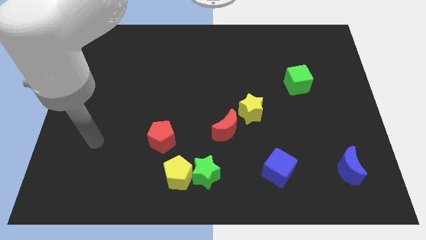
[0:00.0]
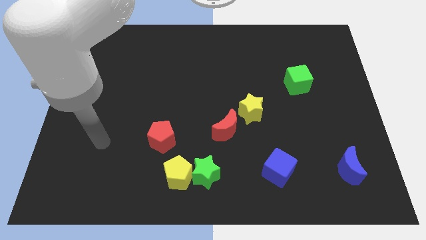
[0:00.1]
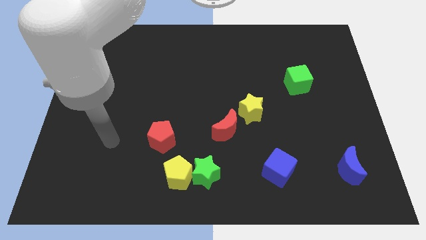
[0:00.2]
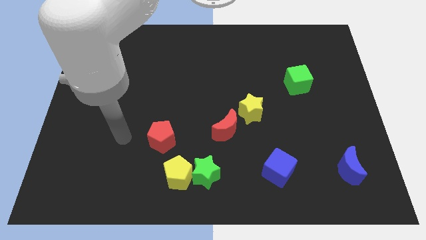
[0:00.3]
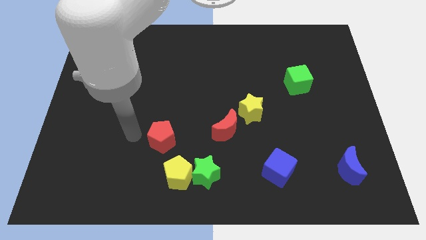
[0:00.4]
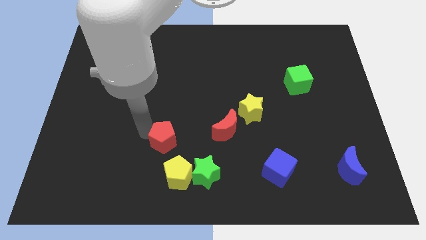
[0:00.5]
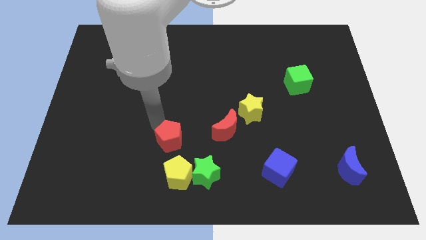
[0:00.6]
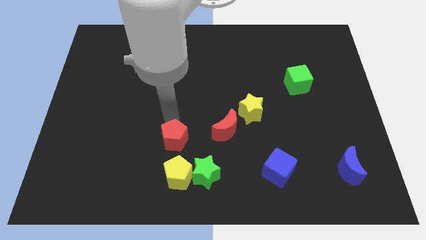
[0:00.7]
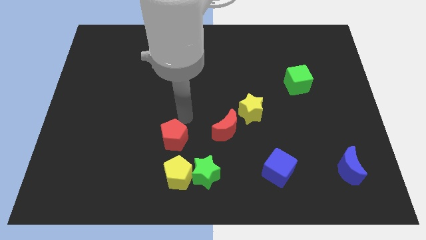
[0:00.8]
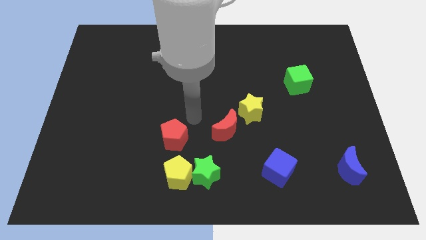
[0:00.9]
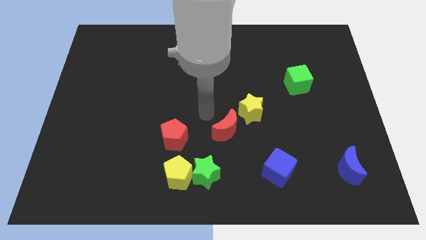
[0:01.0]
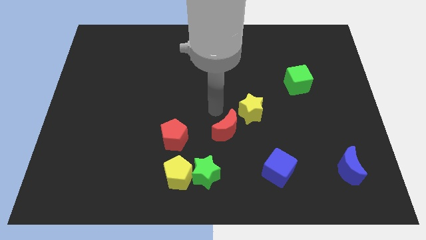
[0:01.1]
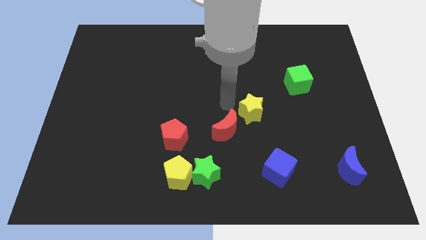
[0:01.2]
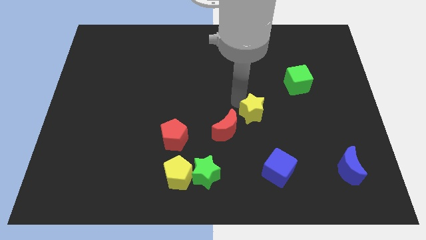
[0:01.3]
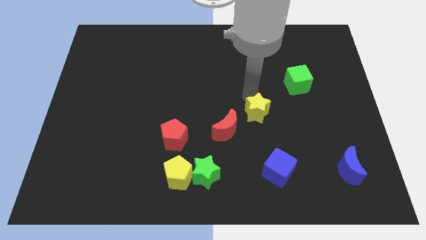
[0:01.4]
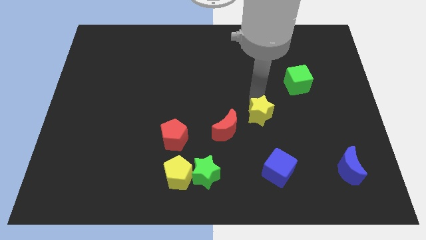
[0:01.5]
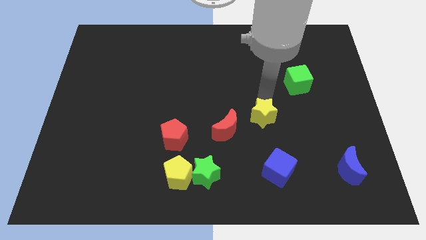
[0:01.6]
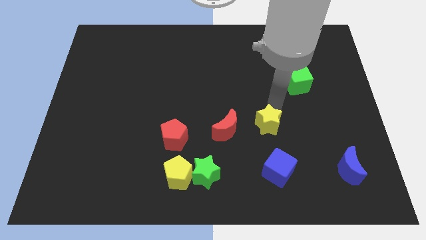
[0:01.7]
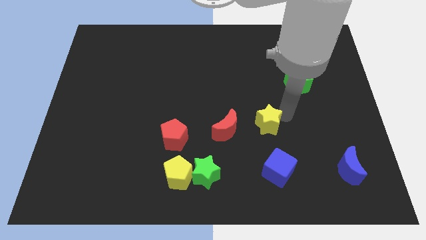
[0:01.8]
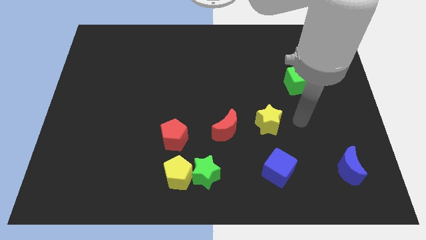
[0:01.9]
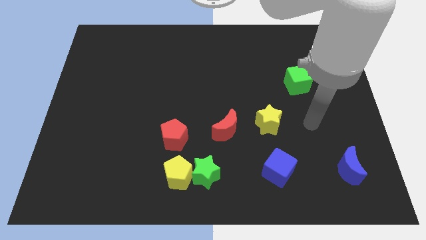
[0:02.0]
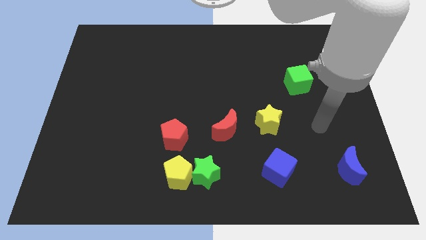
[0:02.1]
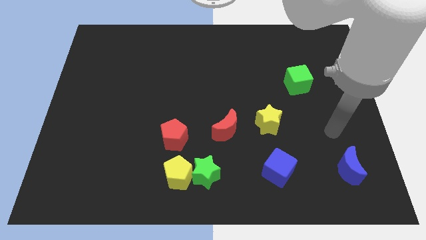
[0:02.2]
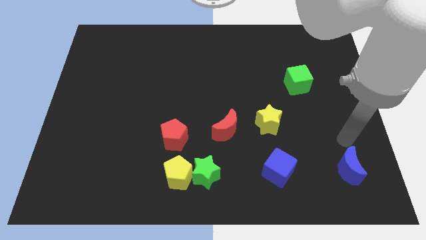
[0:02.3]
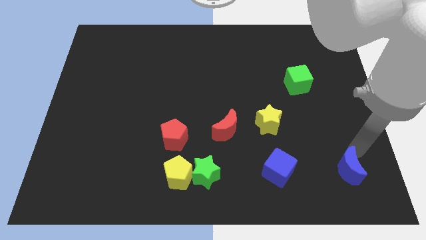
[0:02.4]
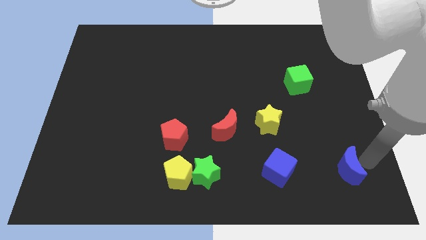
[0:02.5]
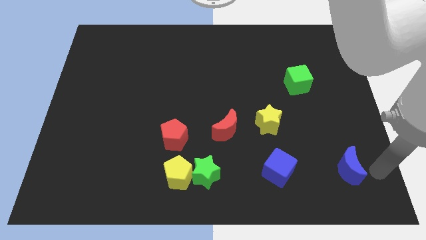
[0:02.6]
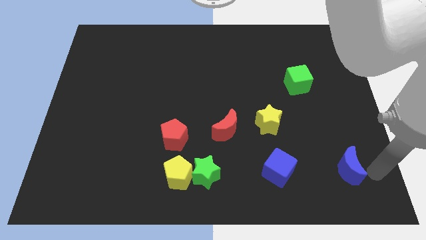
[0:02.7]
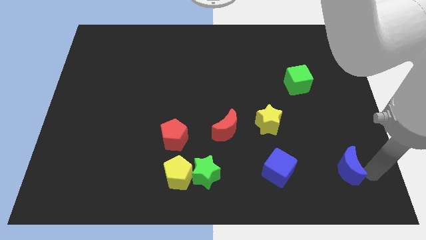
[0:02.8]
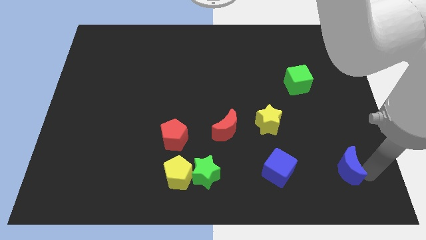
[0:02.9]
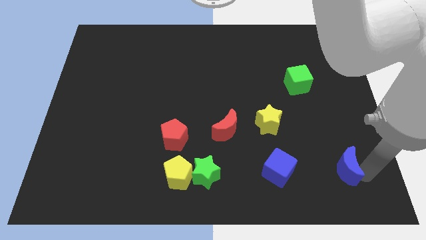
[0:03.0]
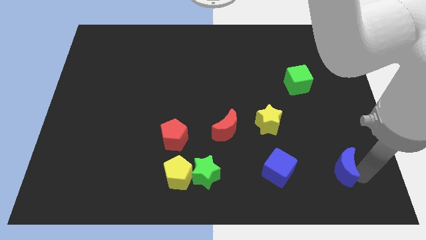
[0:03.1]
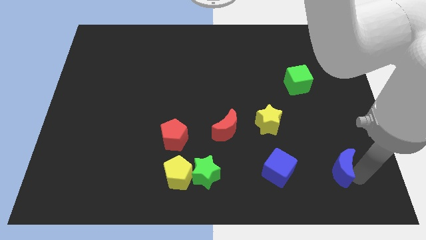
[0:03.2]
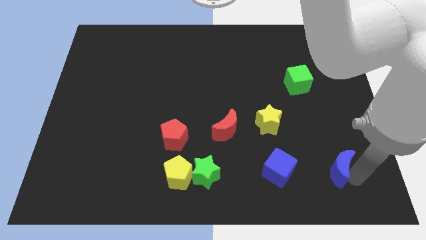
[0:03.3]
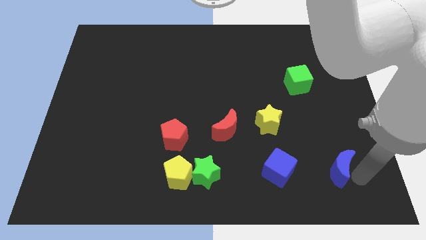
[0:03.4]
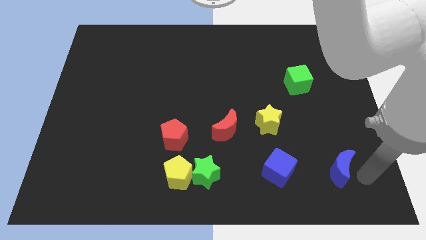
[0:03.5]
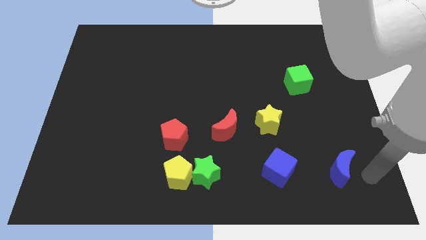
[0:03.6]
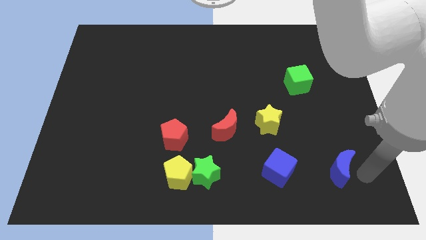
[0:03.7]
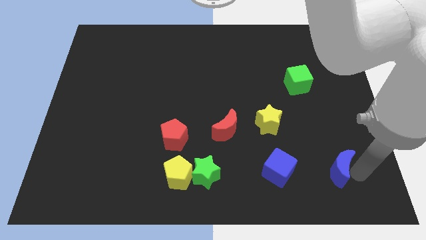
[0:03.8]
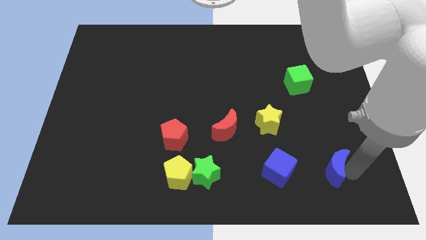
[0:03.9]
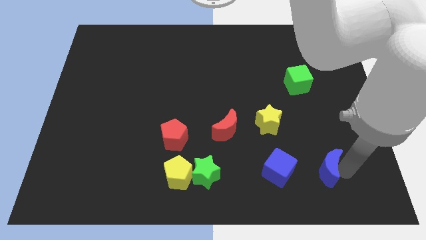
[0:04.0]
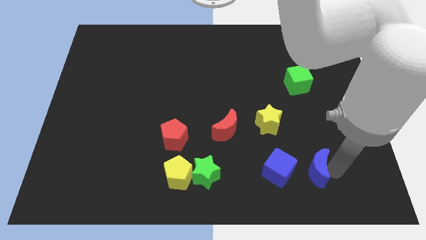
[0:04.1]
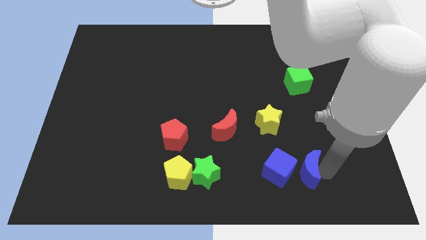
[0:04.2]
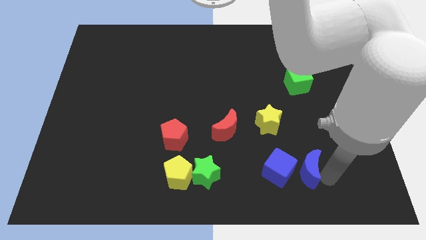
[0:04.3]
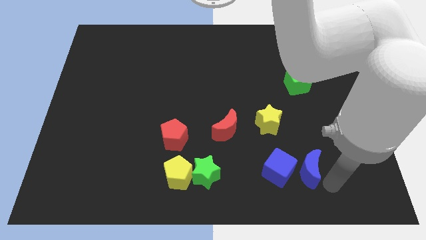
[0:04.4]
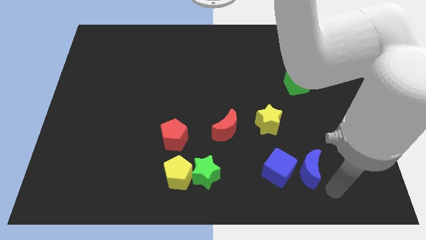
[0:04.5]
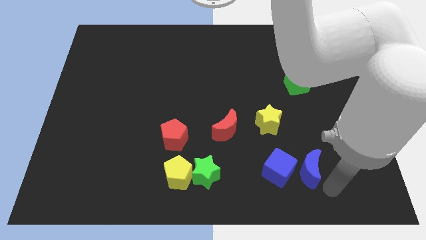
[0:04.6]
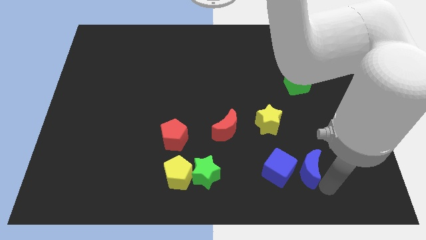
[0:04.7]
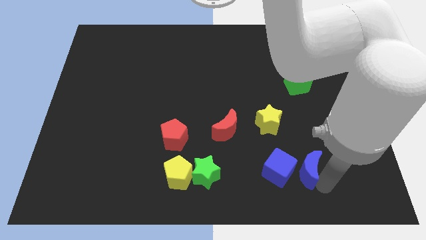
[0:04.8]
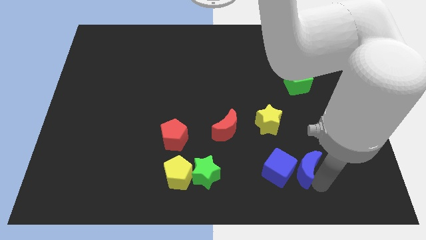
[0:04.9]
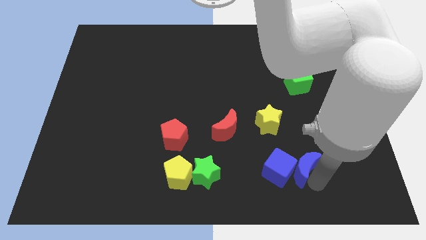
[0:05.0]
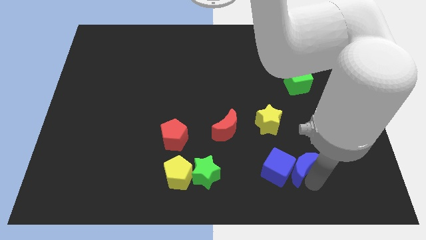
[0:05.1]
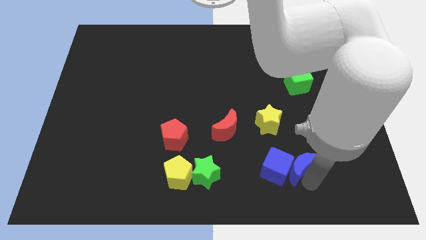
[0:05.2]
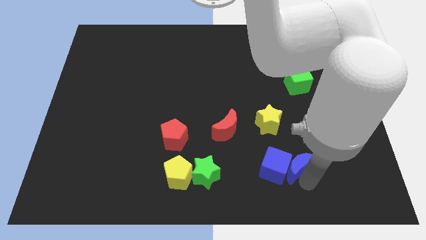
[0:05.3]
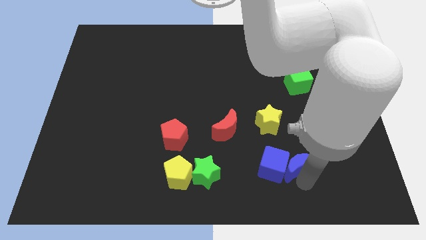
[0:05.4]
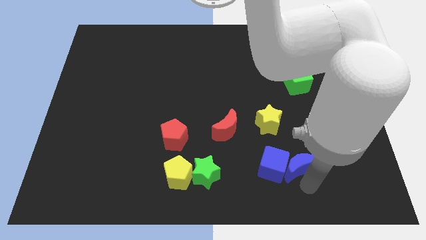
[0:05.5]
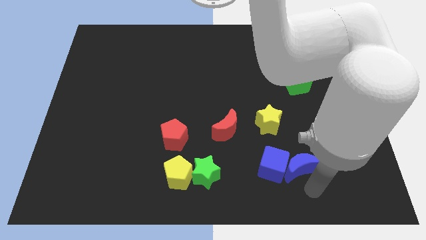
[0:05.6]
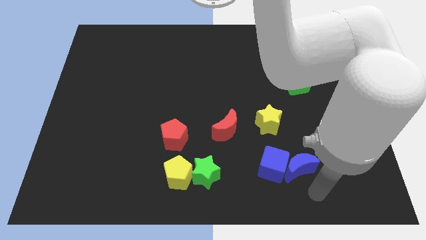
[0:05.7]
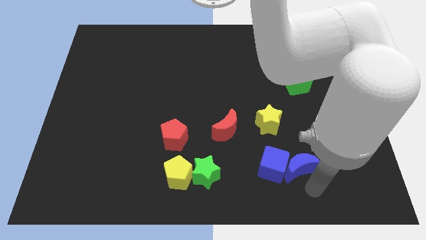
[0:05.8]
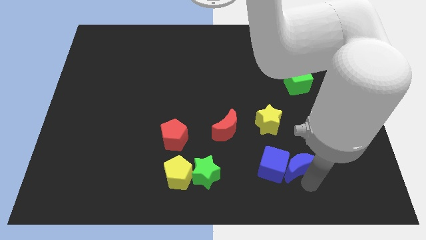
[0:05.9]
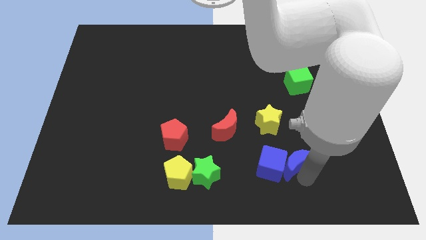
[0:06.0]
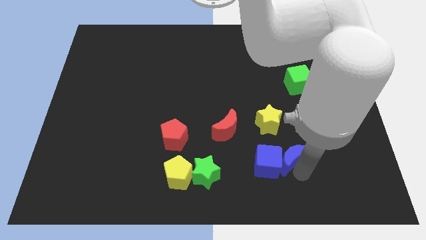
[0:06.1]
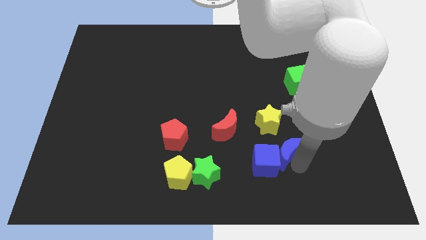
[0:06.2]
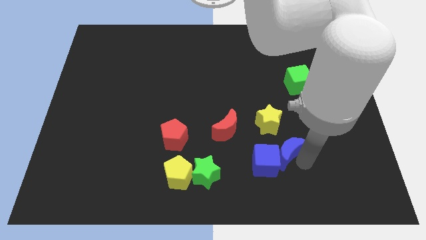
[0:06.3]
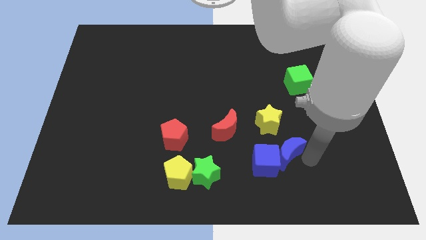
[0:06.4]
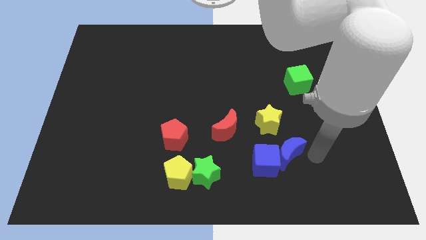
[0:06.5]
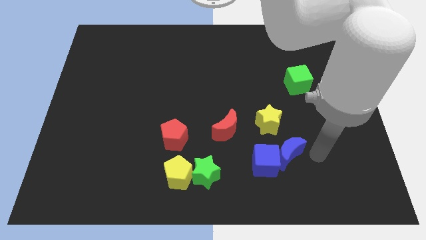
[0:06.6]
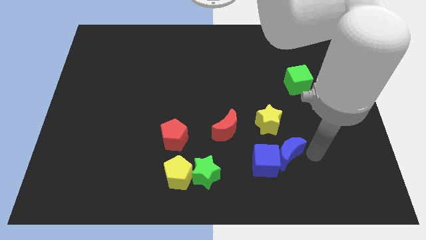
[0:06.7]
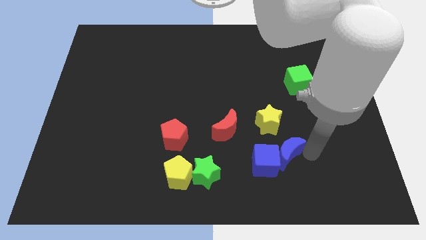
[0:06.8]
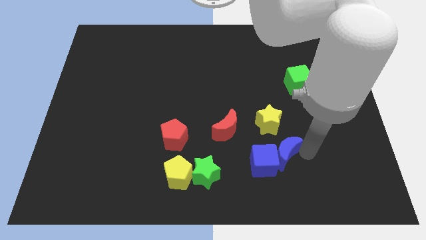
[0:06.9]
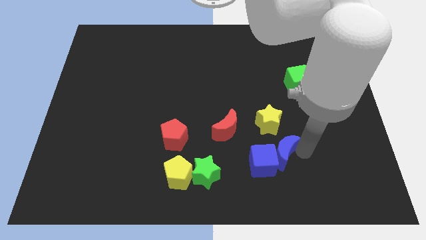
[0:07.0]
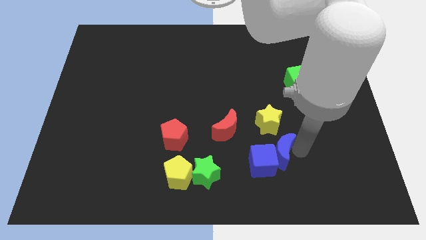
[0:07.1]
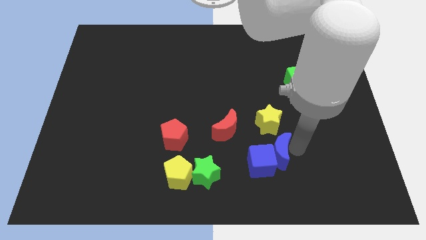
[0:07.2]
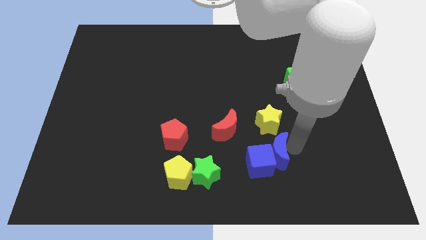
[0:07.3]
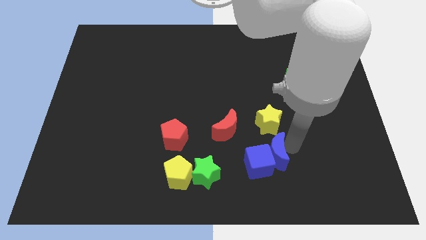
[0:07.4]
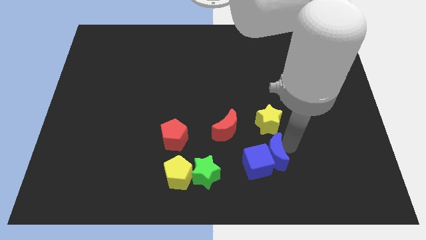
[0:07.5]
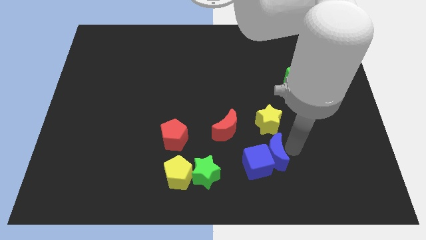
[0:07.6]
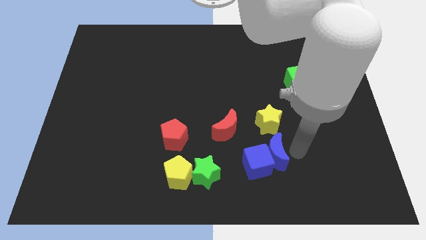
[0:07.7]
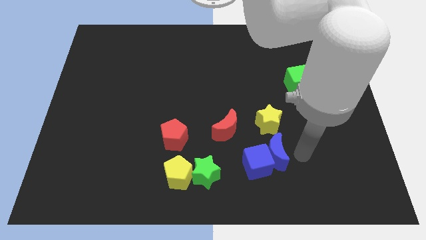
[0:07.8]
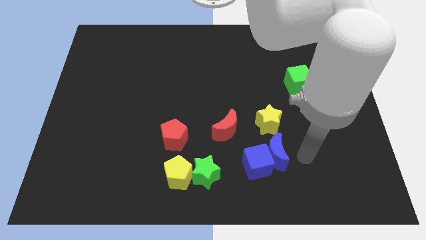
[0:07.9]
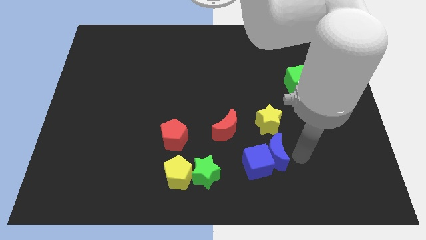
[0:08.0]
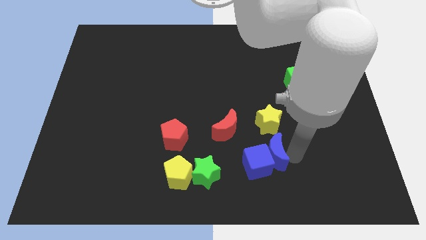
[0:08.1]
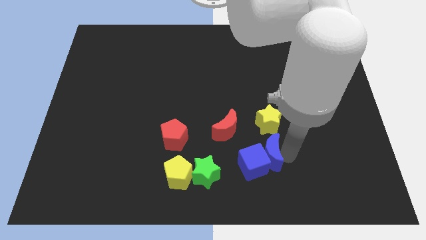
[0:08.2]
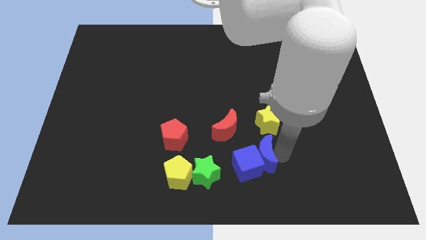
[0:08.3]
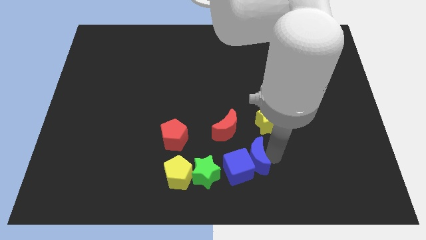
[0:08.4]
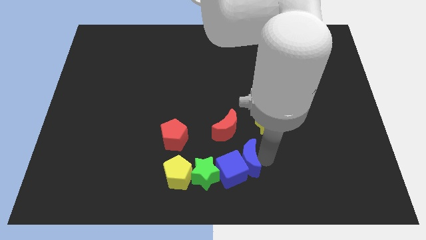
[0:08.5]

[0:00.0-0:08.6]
put the blue moon diagonally up and to the right of the green star
